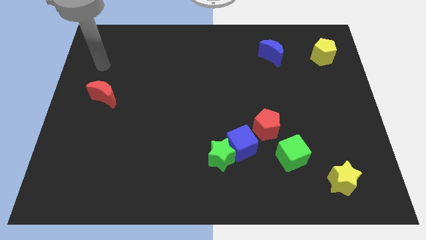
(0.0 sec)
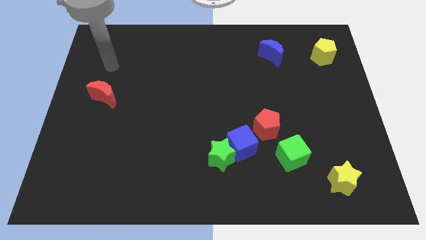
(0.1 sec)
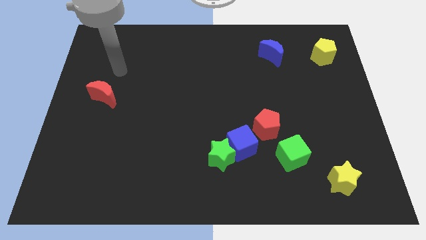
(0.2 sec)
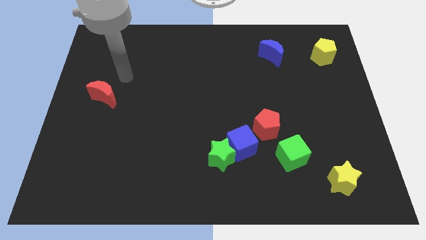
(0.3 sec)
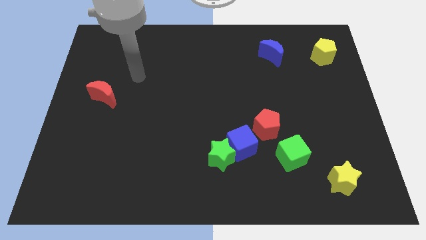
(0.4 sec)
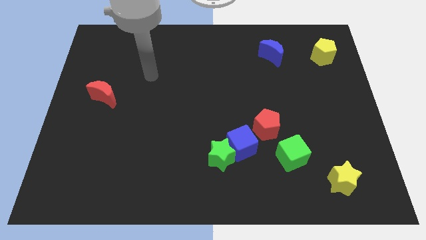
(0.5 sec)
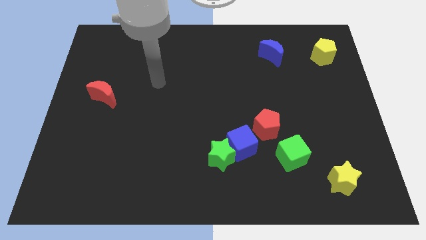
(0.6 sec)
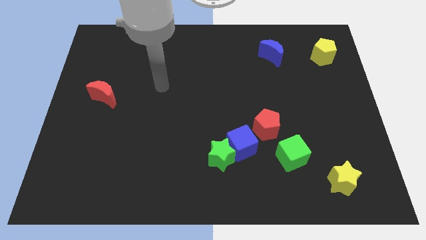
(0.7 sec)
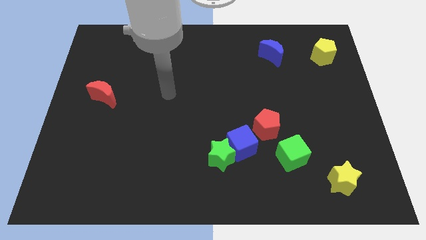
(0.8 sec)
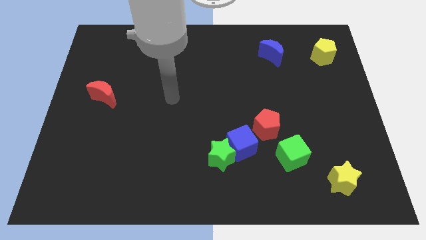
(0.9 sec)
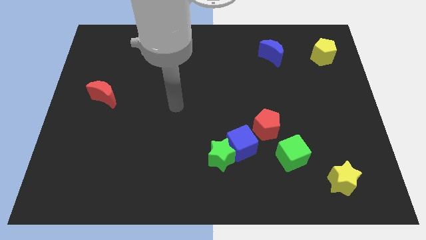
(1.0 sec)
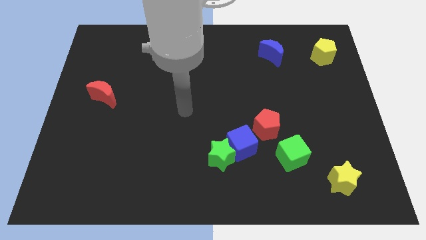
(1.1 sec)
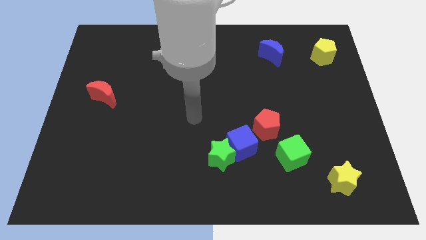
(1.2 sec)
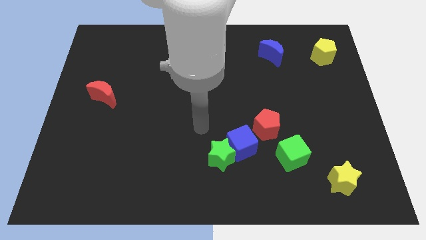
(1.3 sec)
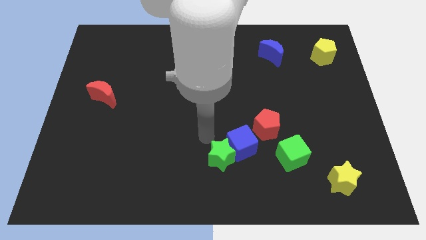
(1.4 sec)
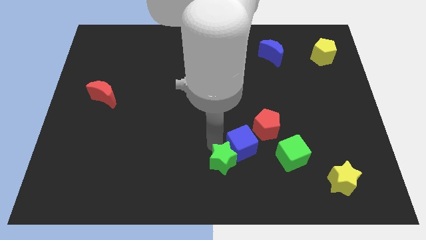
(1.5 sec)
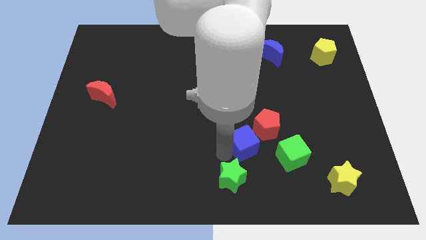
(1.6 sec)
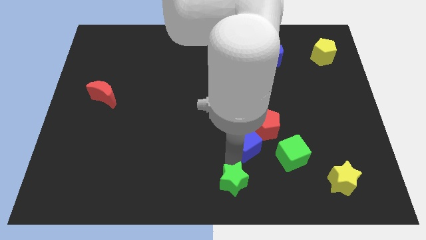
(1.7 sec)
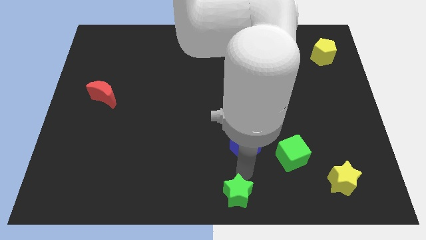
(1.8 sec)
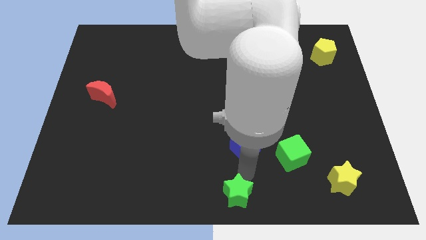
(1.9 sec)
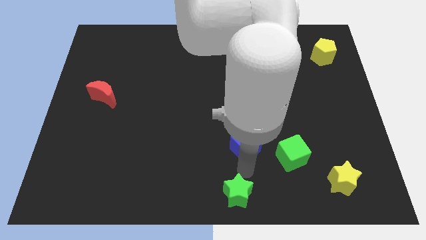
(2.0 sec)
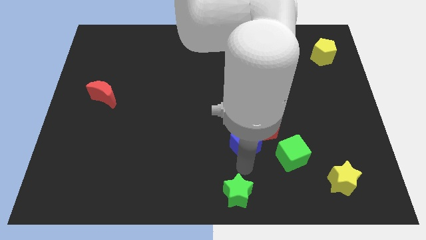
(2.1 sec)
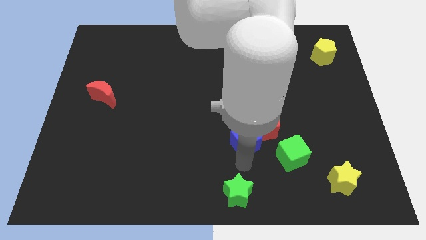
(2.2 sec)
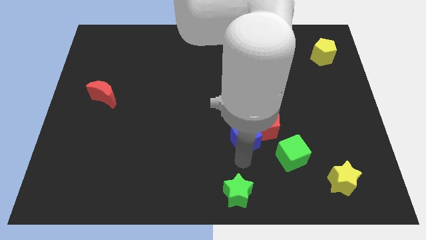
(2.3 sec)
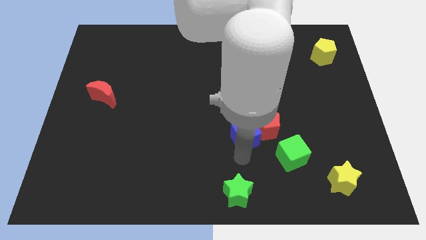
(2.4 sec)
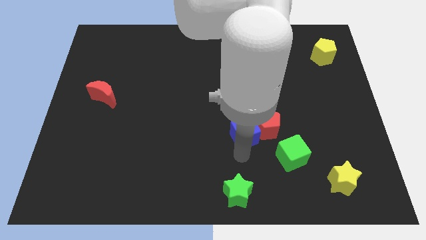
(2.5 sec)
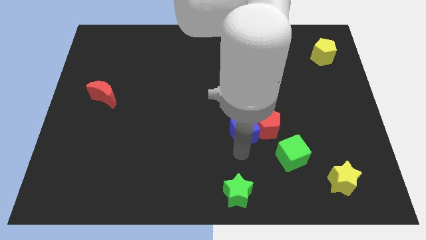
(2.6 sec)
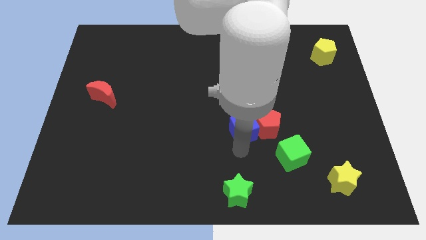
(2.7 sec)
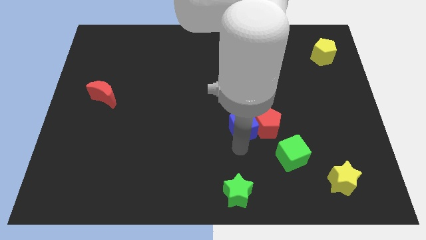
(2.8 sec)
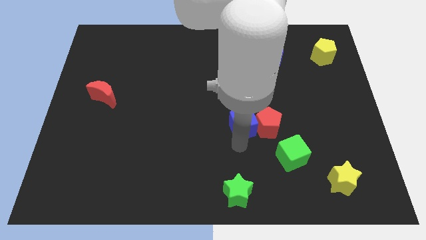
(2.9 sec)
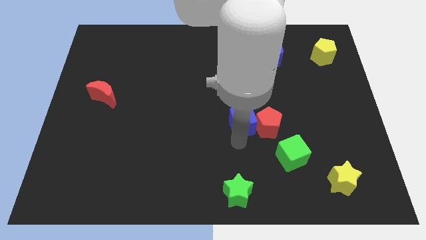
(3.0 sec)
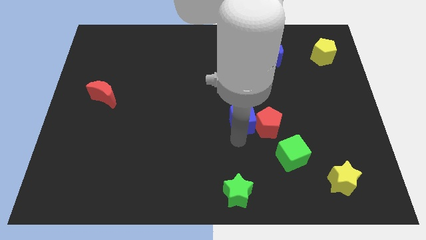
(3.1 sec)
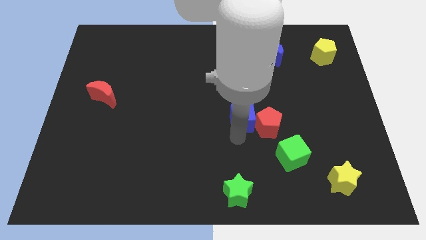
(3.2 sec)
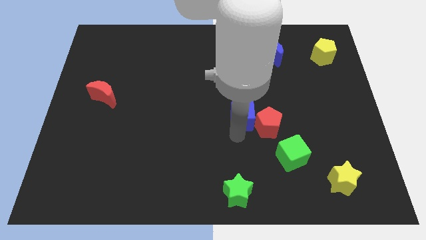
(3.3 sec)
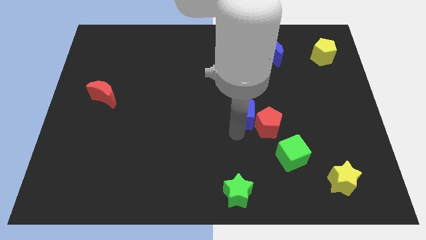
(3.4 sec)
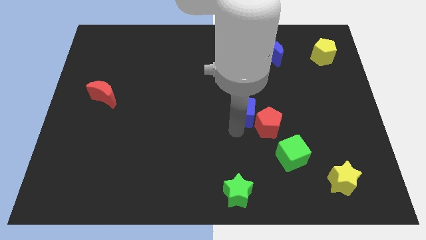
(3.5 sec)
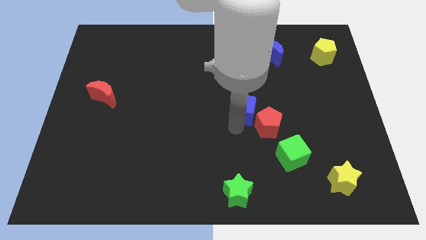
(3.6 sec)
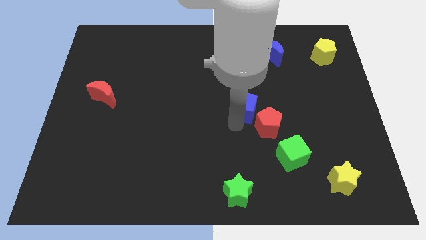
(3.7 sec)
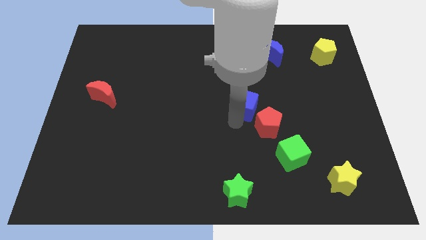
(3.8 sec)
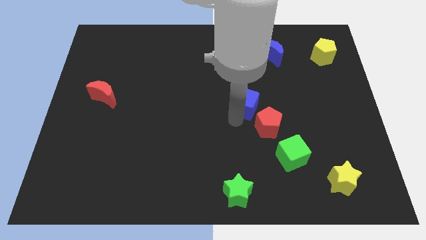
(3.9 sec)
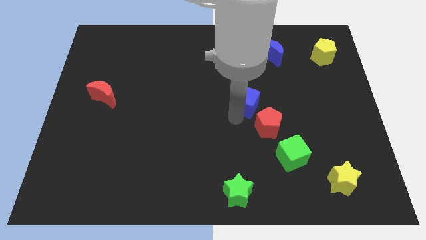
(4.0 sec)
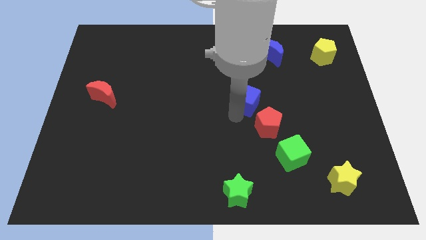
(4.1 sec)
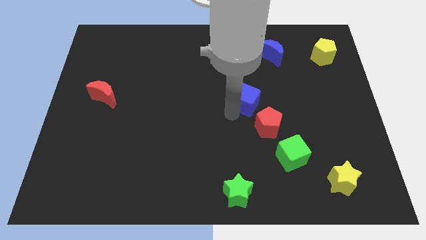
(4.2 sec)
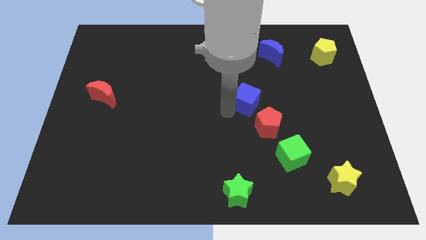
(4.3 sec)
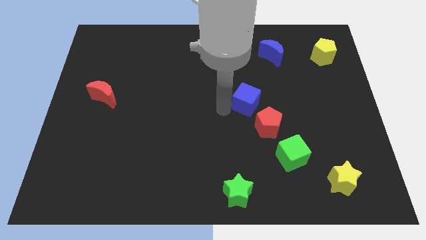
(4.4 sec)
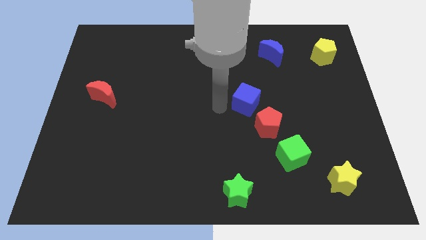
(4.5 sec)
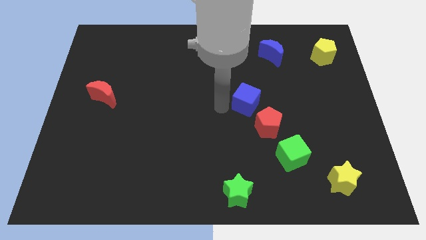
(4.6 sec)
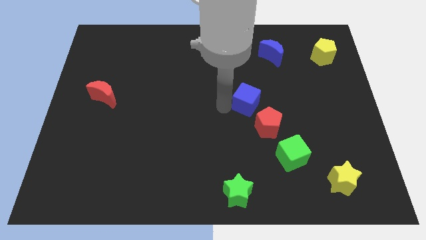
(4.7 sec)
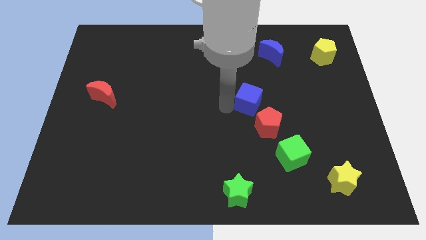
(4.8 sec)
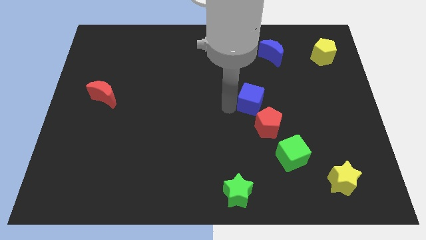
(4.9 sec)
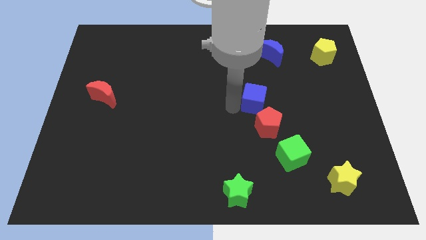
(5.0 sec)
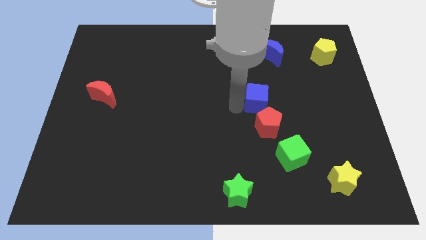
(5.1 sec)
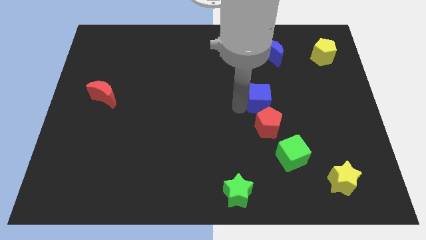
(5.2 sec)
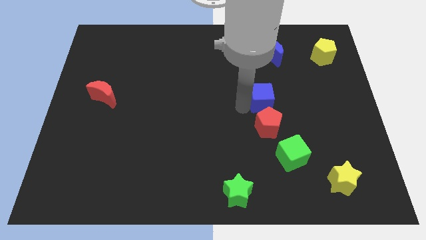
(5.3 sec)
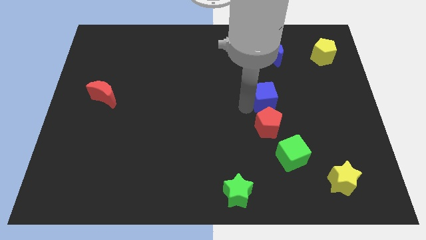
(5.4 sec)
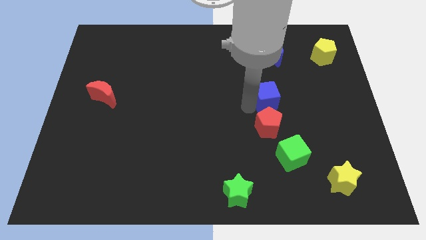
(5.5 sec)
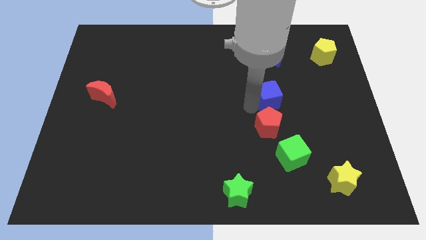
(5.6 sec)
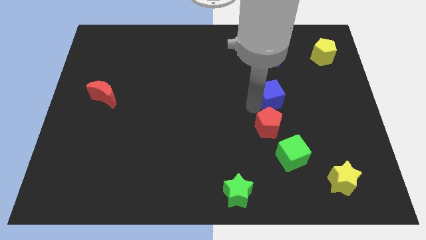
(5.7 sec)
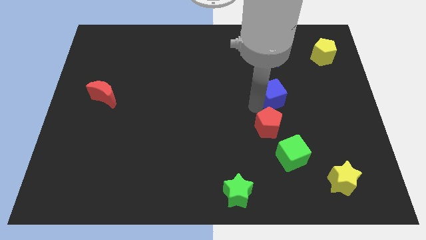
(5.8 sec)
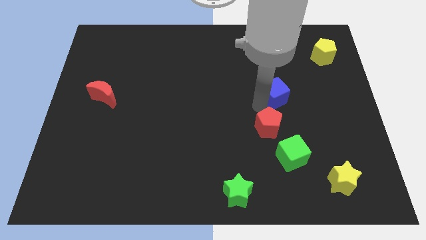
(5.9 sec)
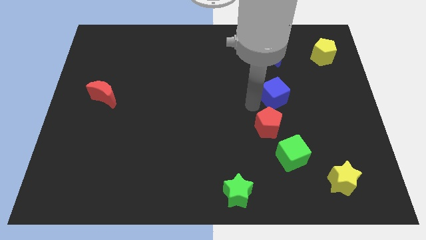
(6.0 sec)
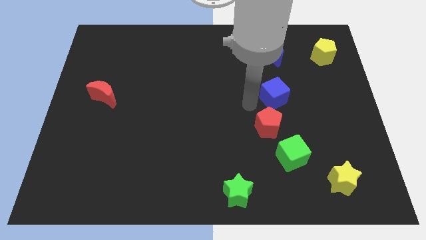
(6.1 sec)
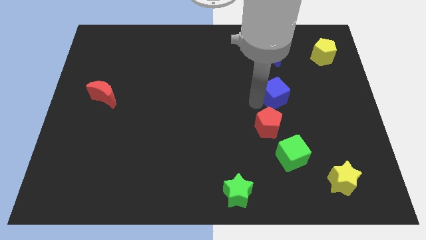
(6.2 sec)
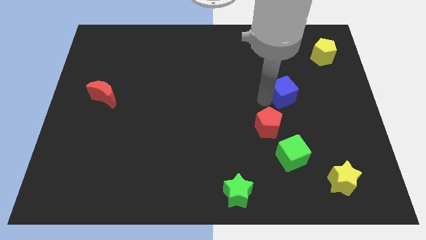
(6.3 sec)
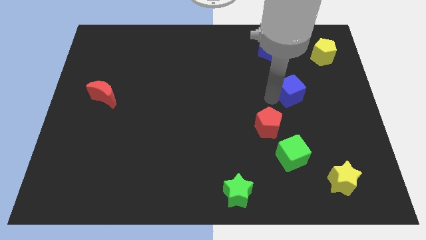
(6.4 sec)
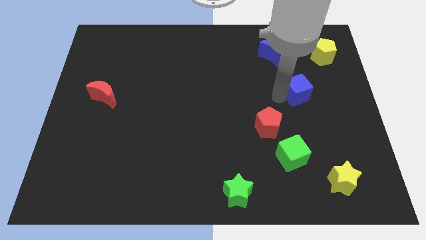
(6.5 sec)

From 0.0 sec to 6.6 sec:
move the blue cube up and to the right

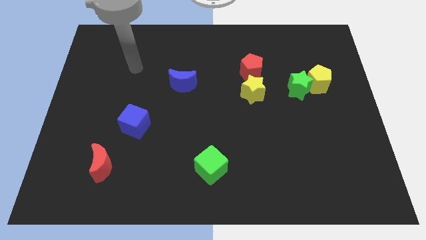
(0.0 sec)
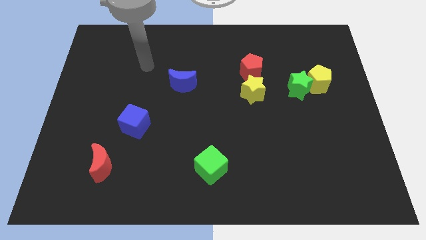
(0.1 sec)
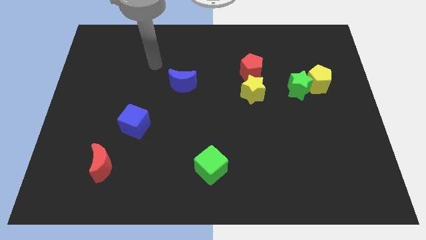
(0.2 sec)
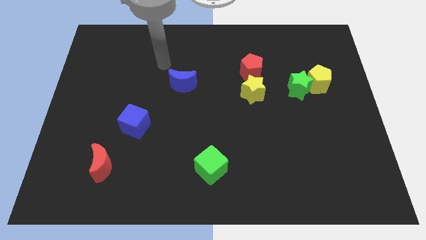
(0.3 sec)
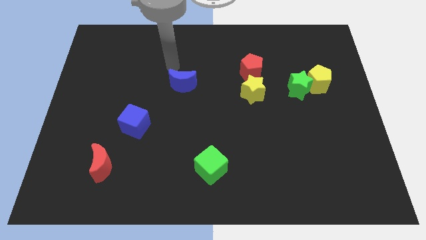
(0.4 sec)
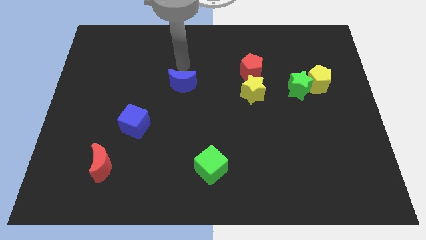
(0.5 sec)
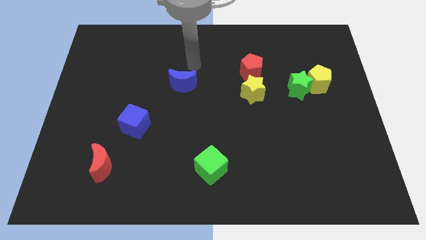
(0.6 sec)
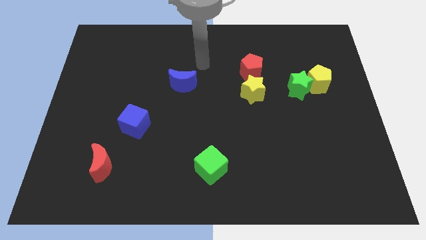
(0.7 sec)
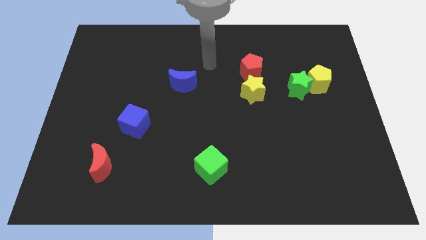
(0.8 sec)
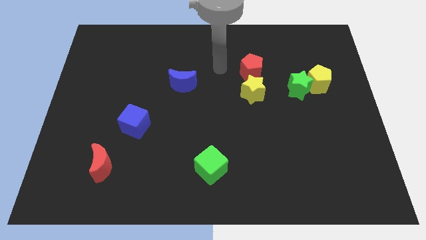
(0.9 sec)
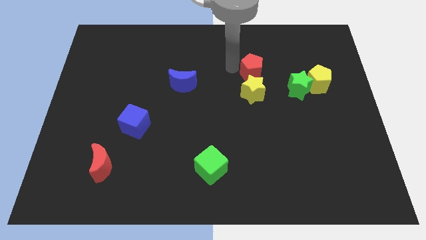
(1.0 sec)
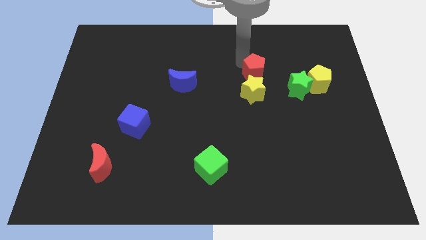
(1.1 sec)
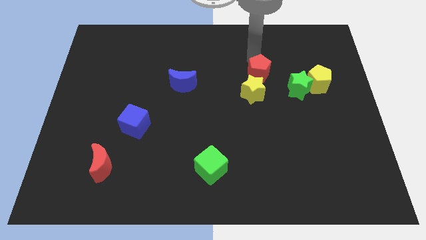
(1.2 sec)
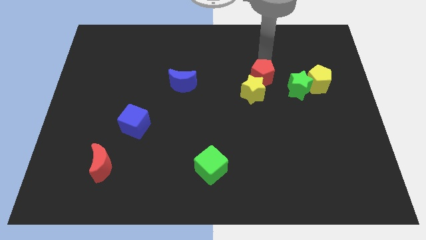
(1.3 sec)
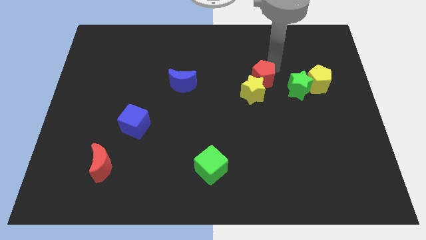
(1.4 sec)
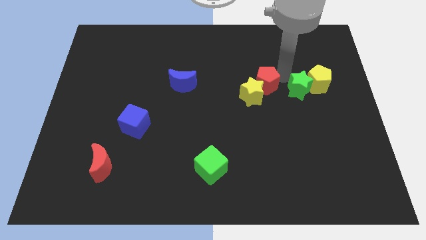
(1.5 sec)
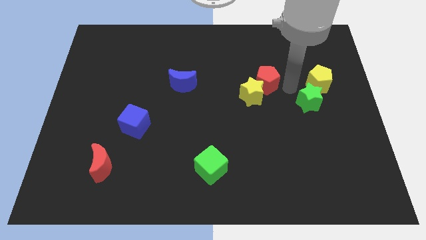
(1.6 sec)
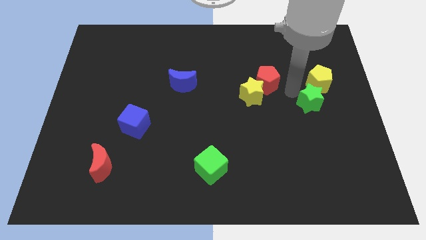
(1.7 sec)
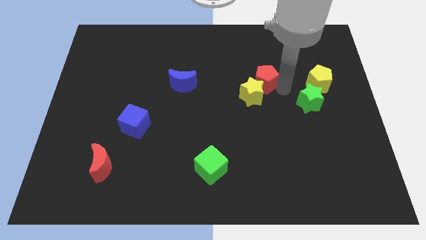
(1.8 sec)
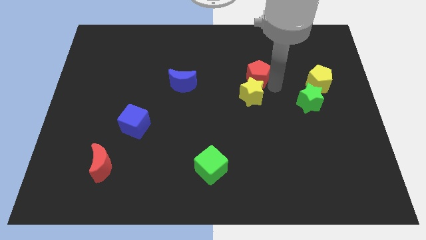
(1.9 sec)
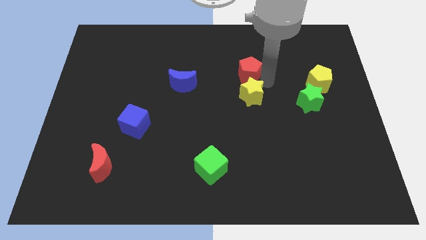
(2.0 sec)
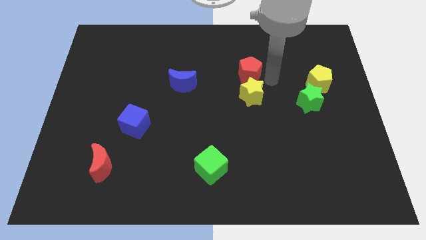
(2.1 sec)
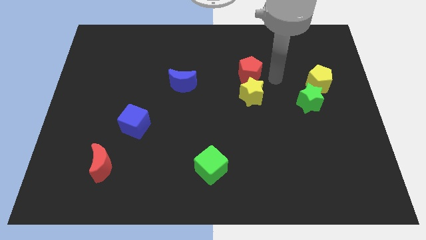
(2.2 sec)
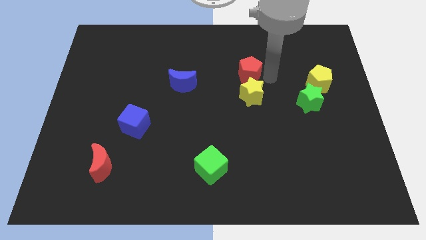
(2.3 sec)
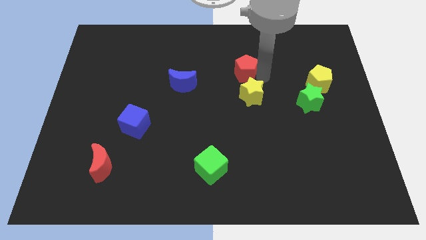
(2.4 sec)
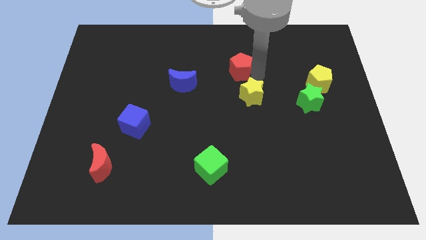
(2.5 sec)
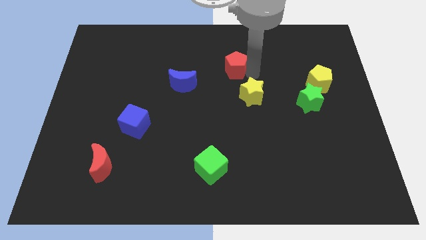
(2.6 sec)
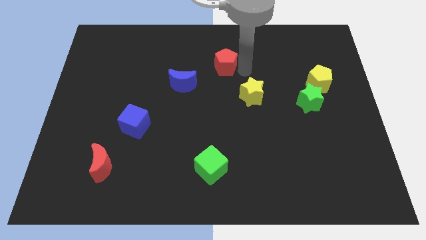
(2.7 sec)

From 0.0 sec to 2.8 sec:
move the red pentagon left a bit
